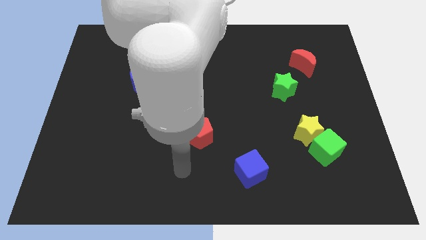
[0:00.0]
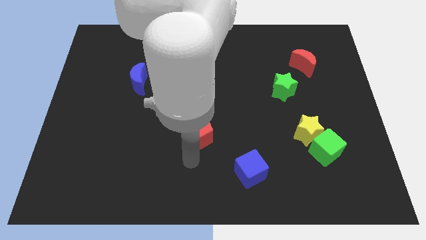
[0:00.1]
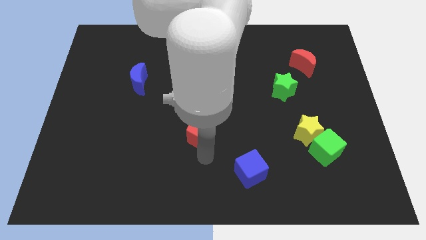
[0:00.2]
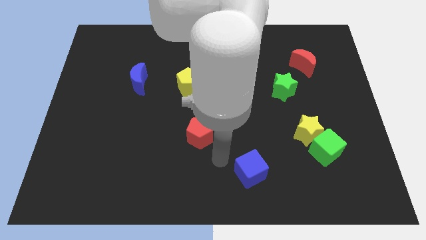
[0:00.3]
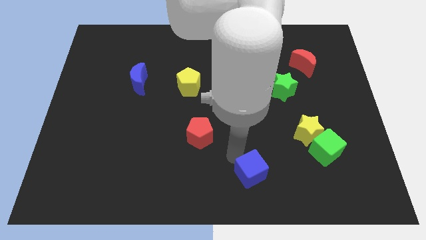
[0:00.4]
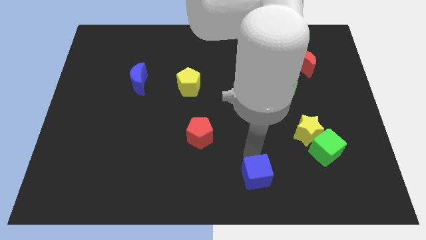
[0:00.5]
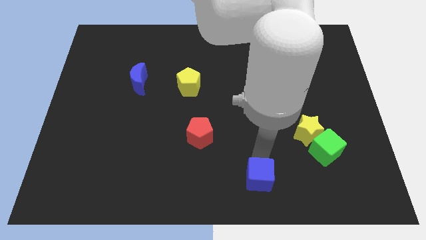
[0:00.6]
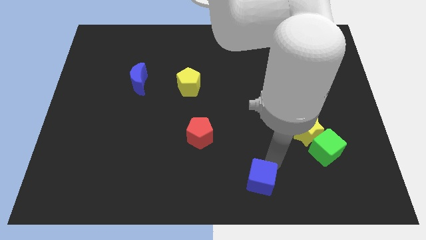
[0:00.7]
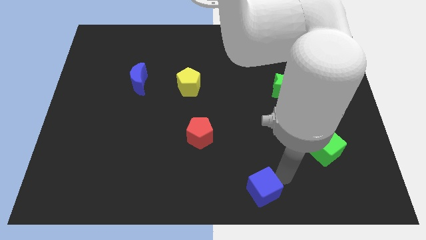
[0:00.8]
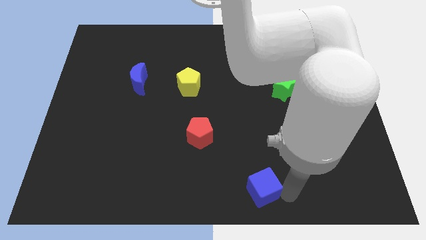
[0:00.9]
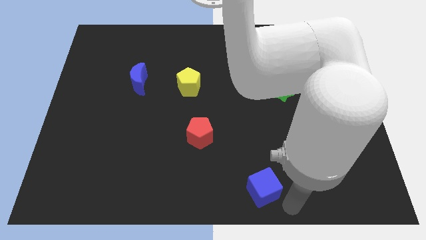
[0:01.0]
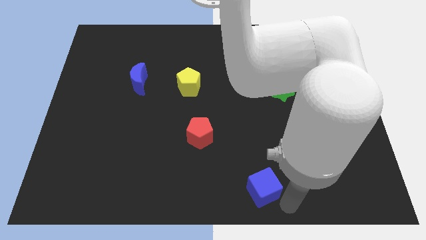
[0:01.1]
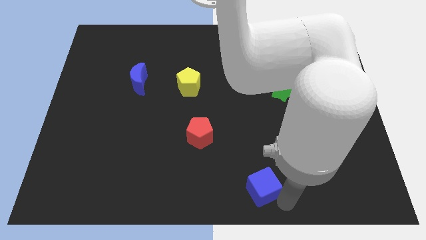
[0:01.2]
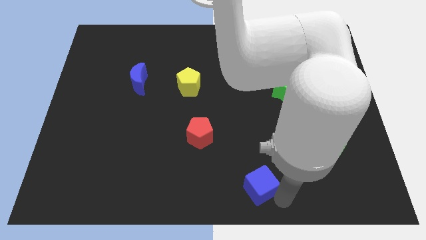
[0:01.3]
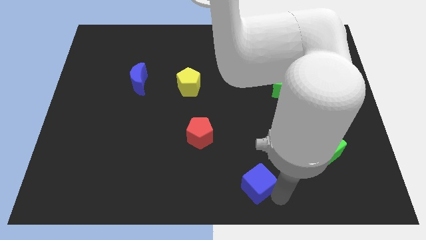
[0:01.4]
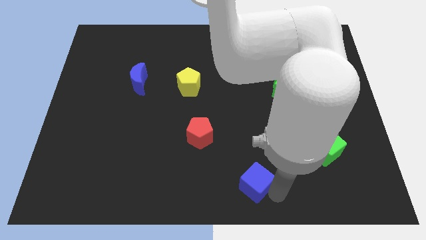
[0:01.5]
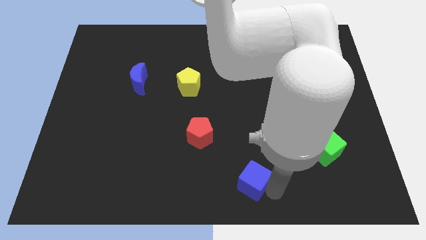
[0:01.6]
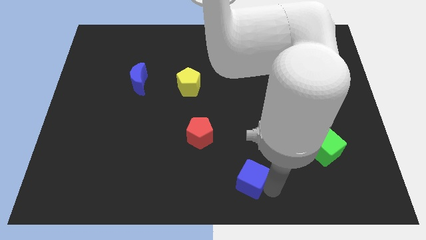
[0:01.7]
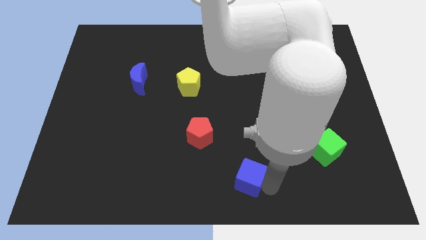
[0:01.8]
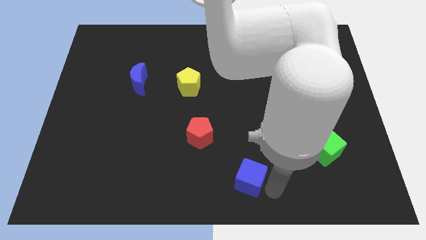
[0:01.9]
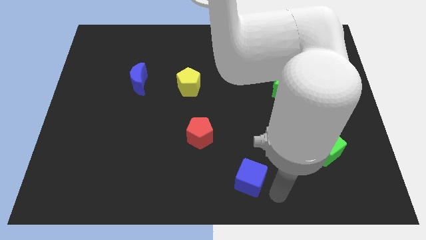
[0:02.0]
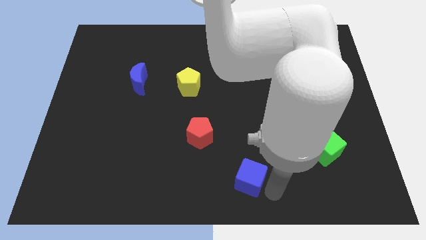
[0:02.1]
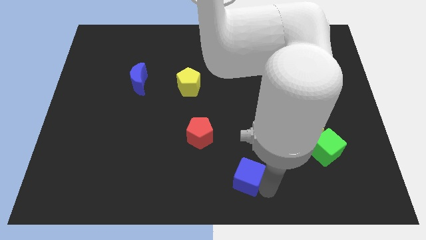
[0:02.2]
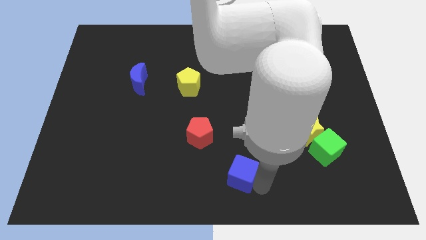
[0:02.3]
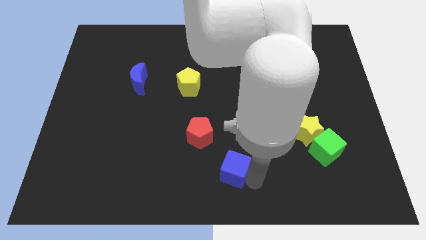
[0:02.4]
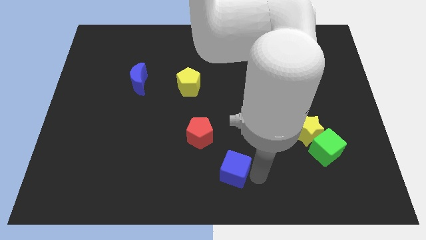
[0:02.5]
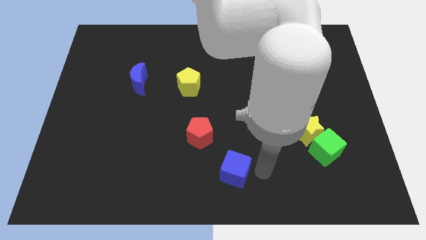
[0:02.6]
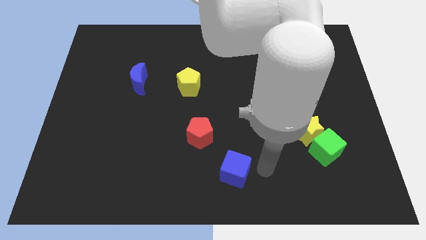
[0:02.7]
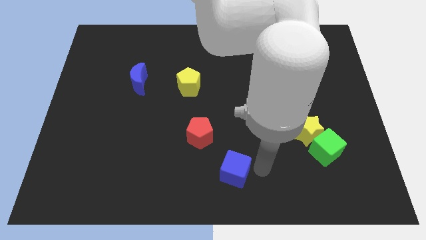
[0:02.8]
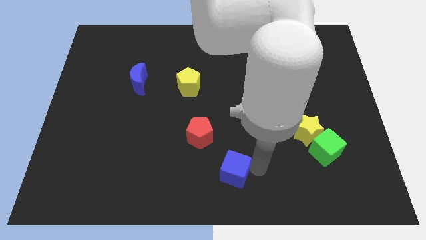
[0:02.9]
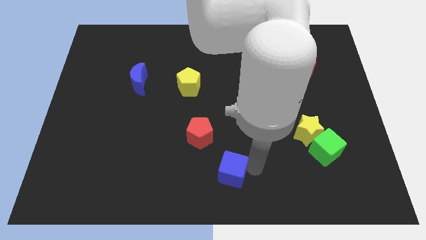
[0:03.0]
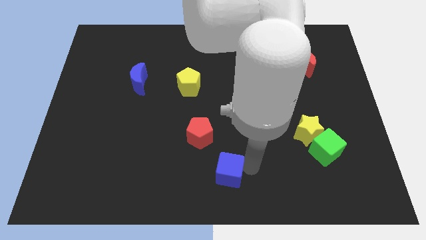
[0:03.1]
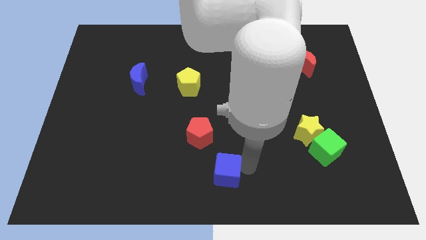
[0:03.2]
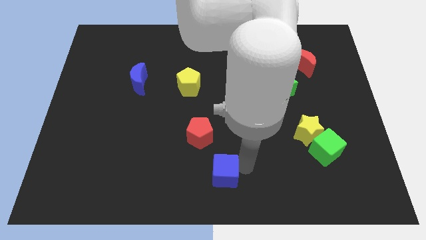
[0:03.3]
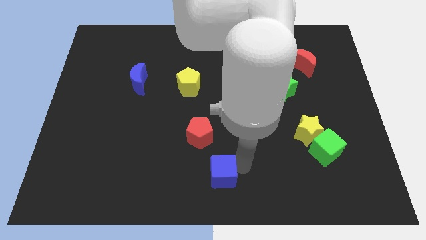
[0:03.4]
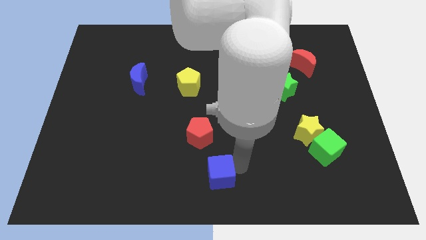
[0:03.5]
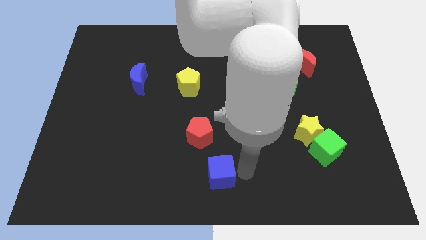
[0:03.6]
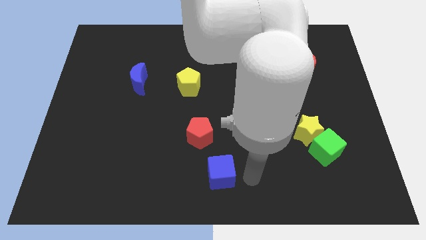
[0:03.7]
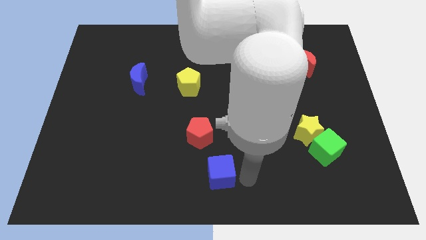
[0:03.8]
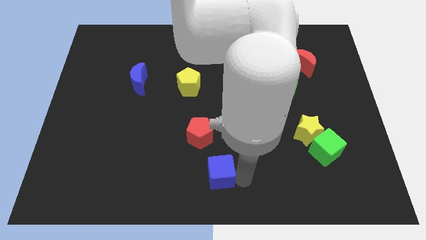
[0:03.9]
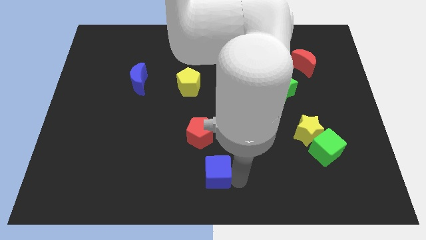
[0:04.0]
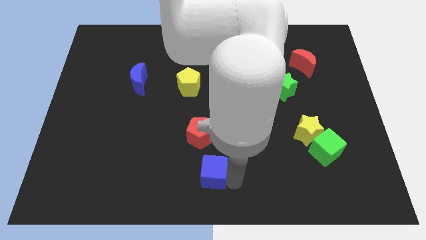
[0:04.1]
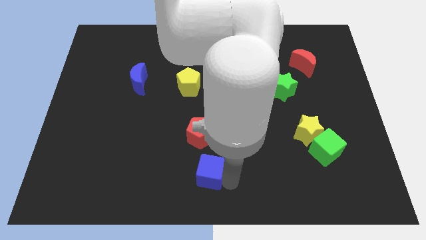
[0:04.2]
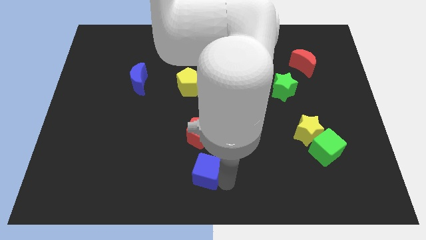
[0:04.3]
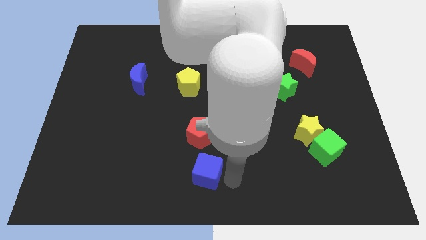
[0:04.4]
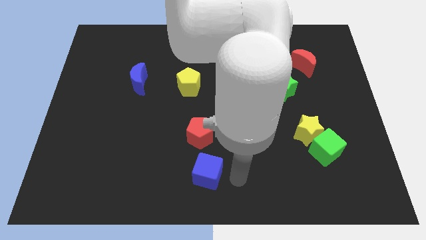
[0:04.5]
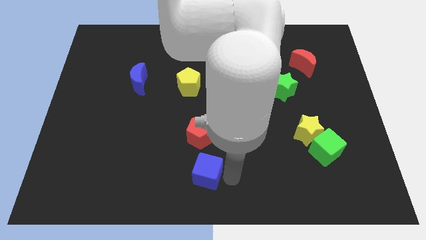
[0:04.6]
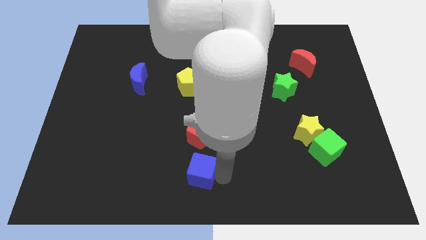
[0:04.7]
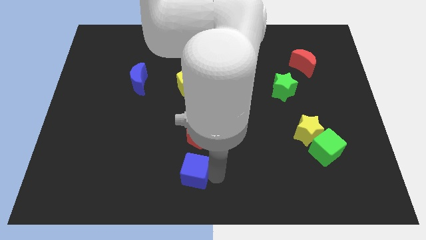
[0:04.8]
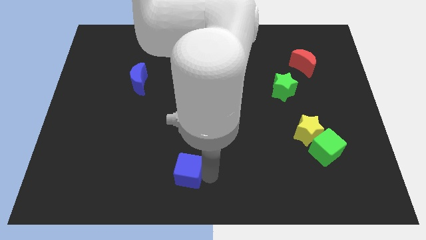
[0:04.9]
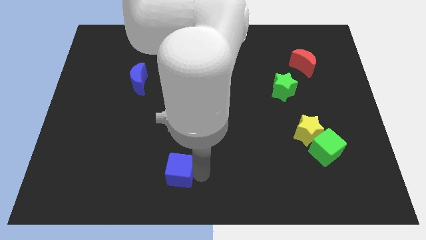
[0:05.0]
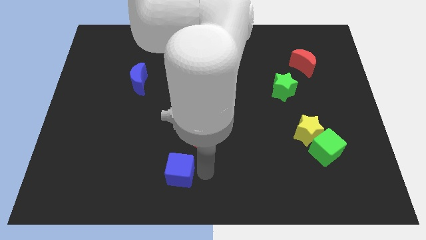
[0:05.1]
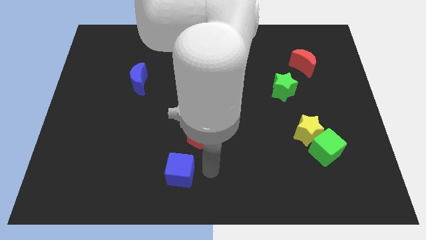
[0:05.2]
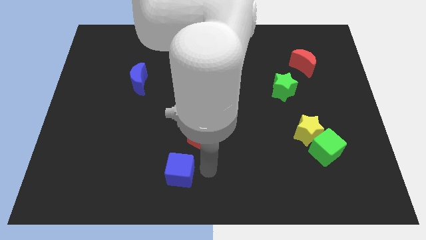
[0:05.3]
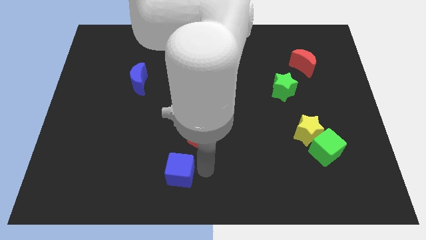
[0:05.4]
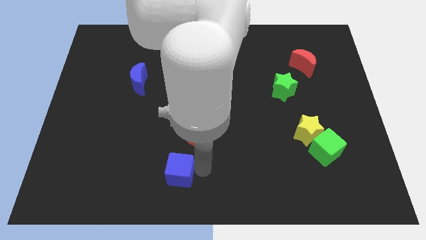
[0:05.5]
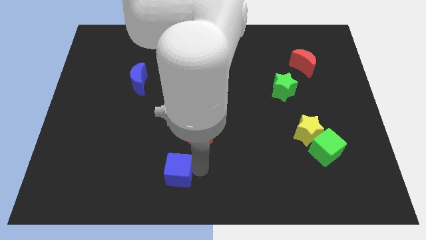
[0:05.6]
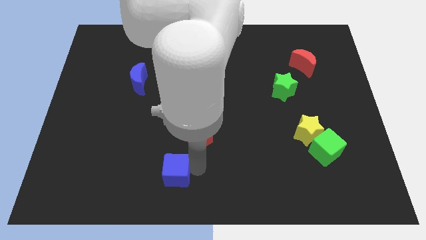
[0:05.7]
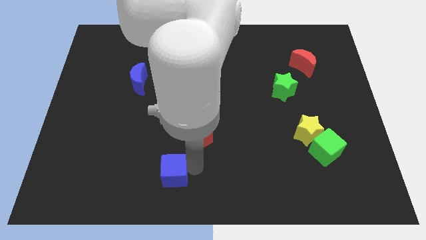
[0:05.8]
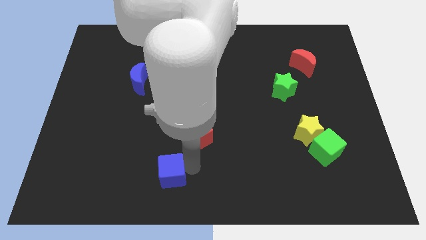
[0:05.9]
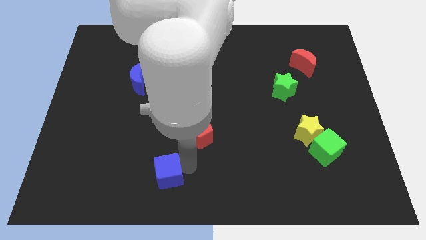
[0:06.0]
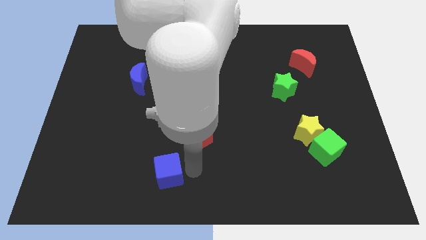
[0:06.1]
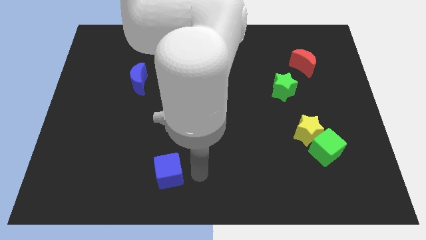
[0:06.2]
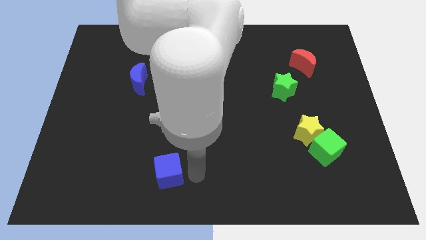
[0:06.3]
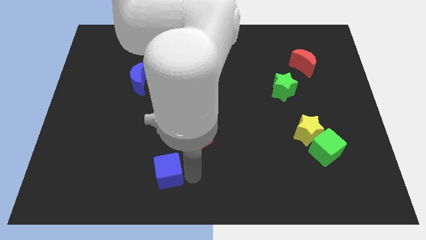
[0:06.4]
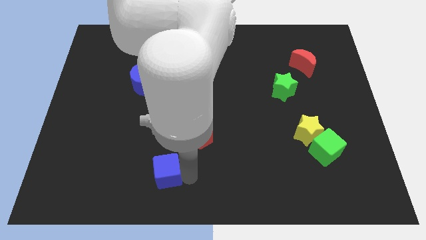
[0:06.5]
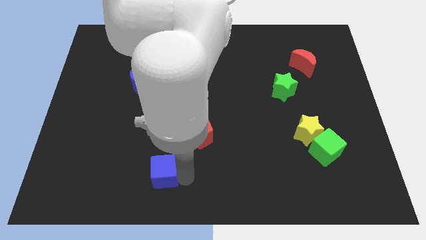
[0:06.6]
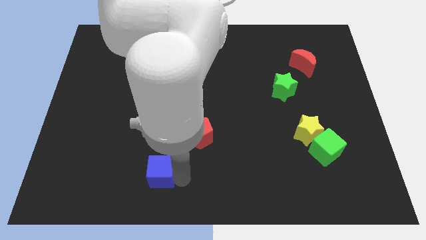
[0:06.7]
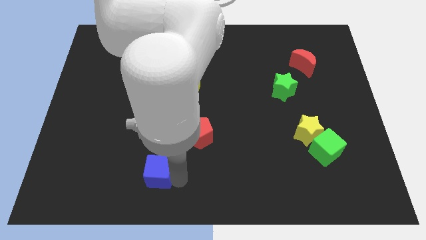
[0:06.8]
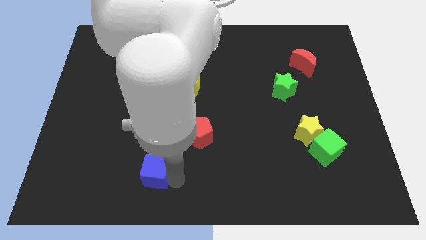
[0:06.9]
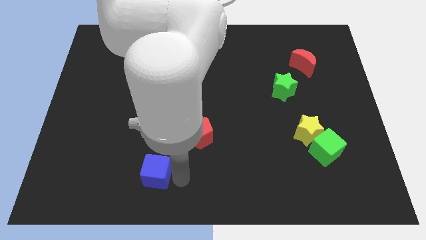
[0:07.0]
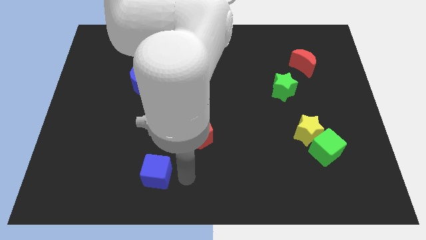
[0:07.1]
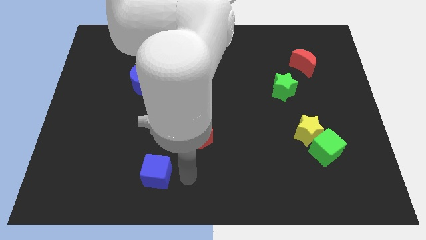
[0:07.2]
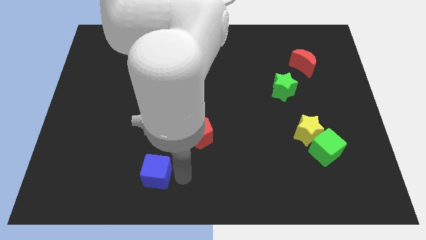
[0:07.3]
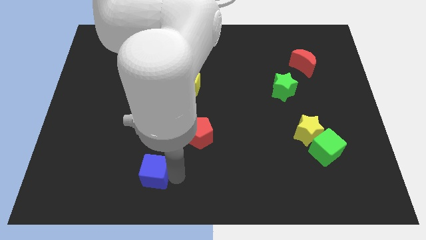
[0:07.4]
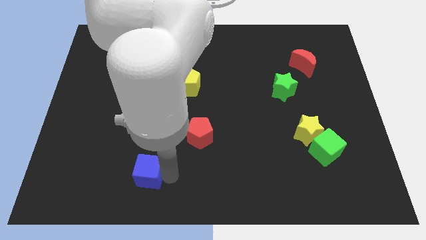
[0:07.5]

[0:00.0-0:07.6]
slide the blue cube to the left

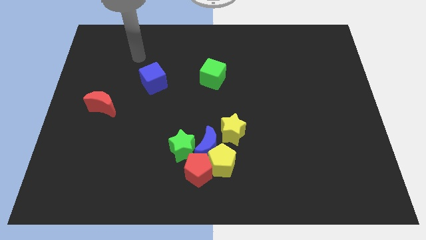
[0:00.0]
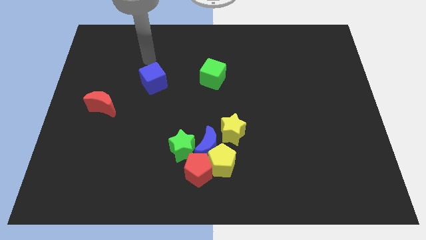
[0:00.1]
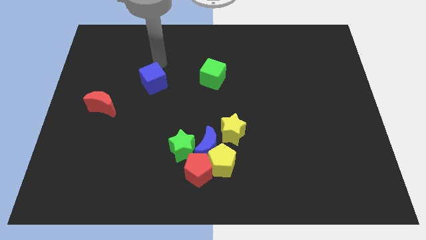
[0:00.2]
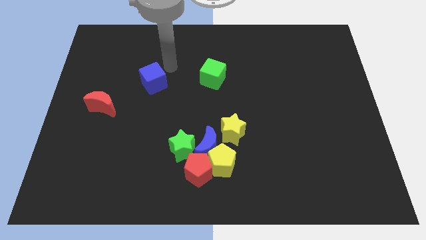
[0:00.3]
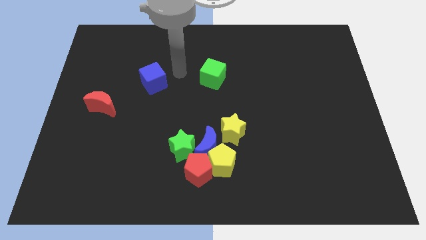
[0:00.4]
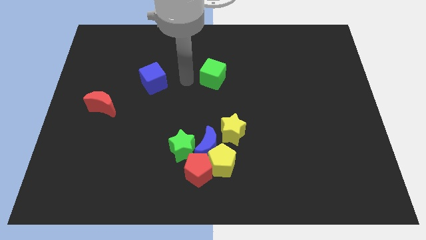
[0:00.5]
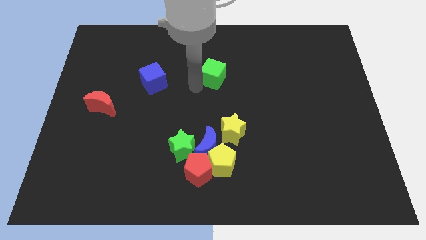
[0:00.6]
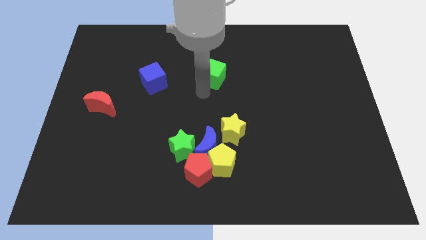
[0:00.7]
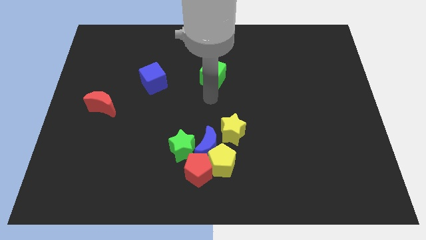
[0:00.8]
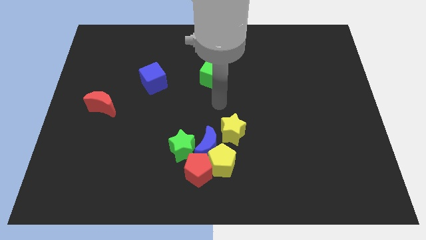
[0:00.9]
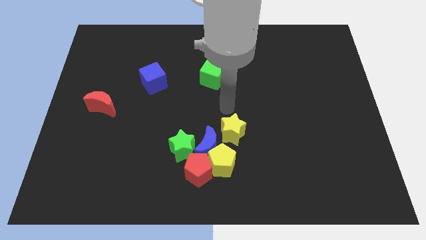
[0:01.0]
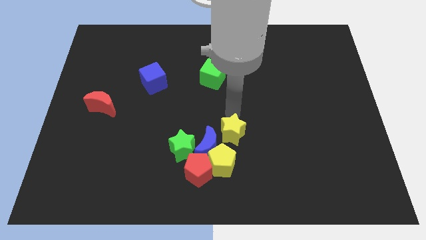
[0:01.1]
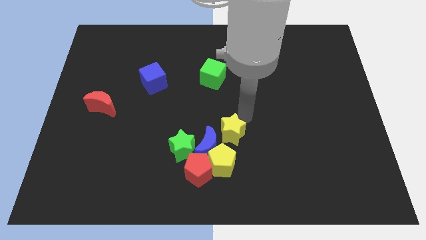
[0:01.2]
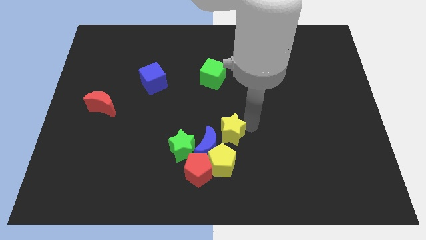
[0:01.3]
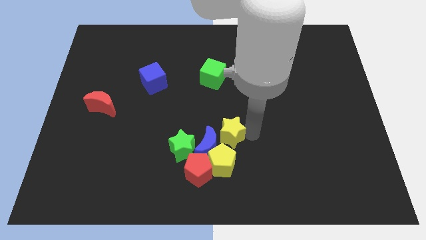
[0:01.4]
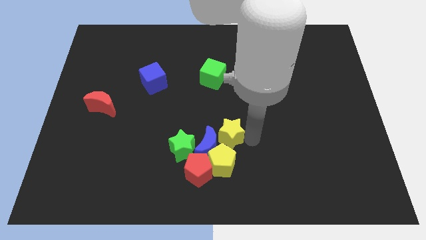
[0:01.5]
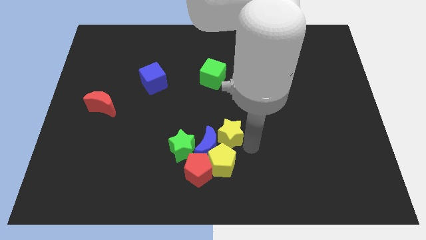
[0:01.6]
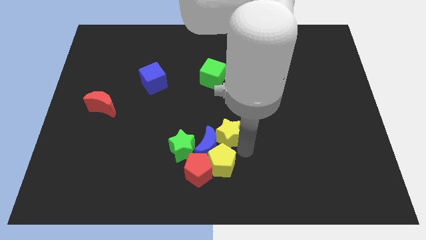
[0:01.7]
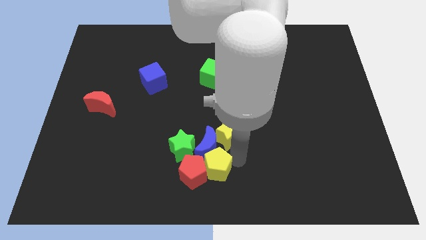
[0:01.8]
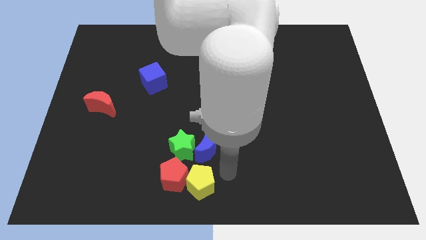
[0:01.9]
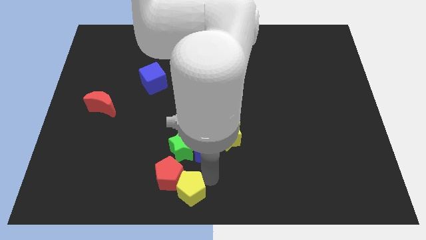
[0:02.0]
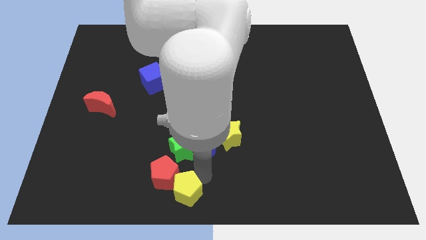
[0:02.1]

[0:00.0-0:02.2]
slightly move the red pentagon left
